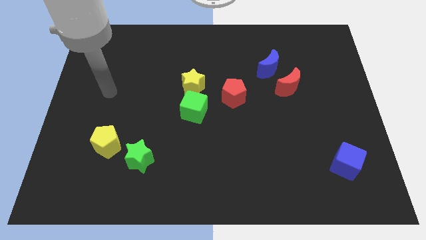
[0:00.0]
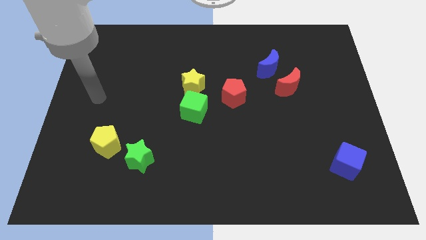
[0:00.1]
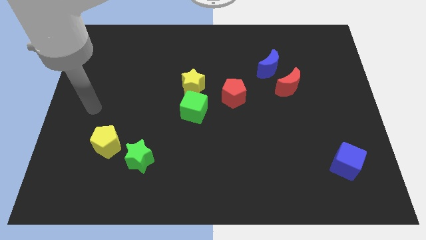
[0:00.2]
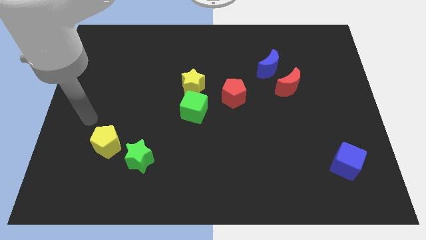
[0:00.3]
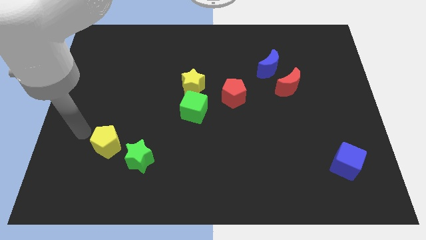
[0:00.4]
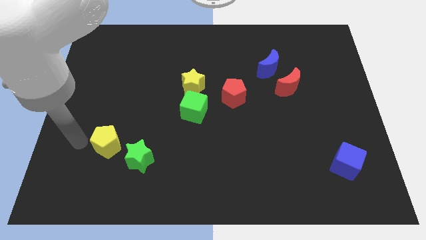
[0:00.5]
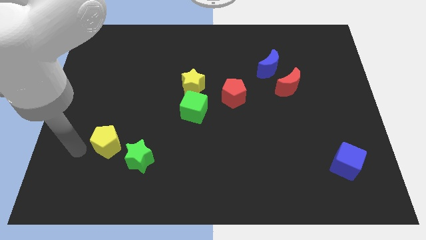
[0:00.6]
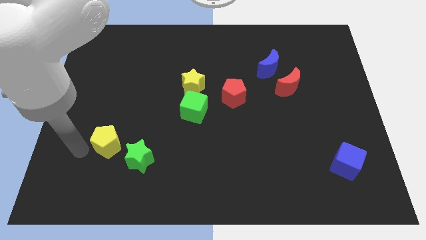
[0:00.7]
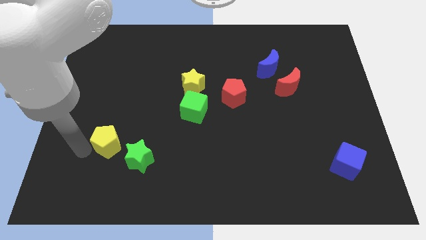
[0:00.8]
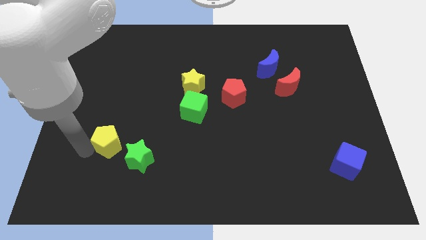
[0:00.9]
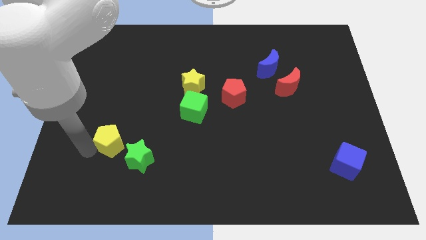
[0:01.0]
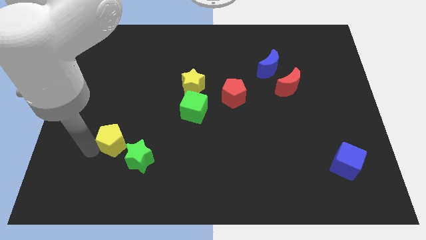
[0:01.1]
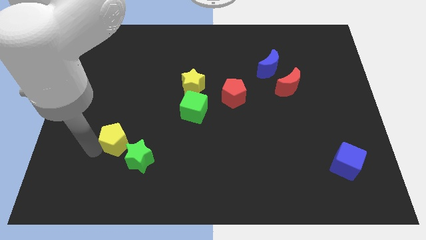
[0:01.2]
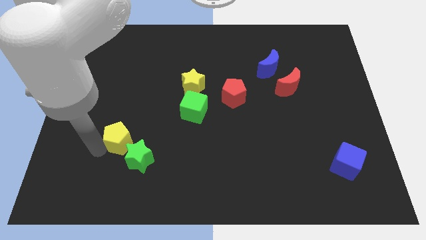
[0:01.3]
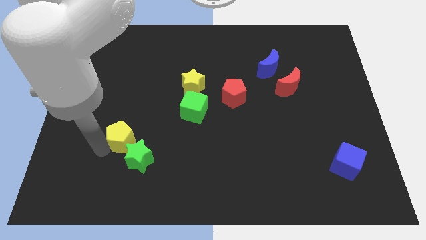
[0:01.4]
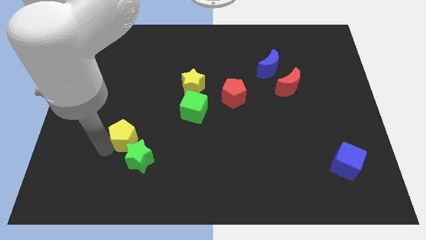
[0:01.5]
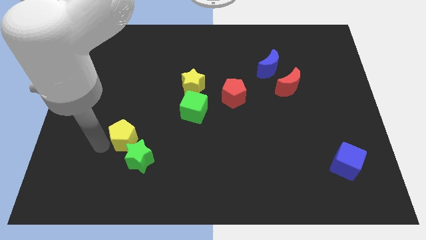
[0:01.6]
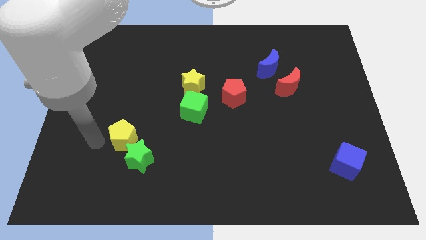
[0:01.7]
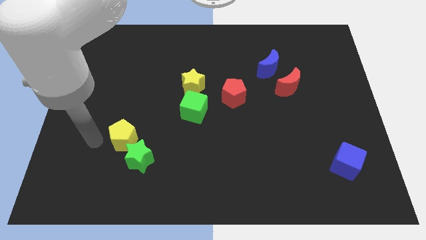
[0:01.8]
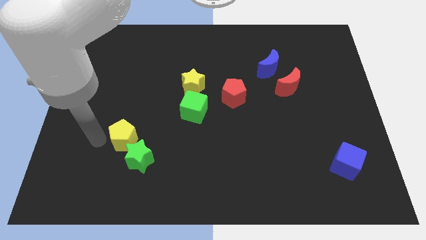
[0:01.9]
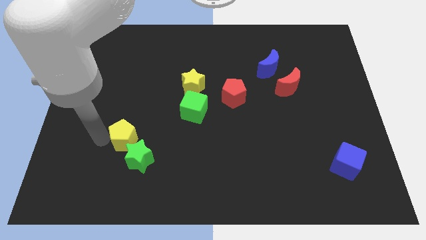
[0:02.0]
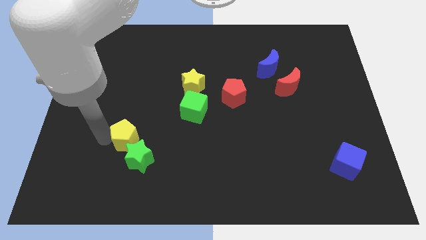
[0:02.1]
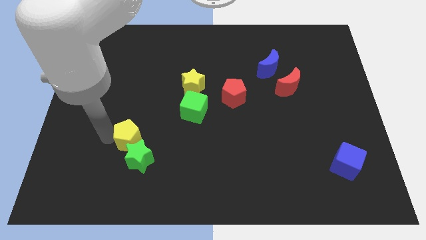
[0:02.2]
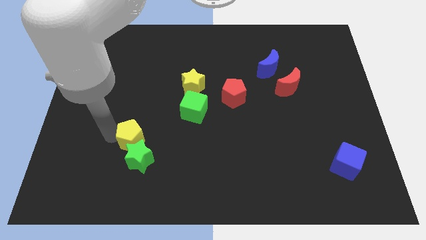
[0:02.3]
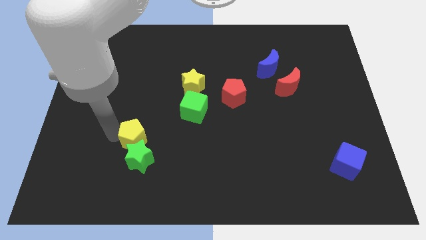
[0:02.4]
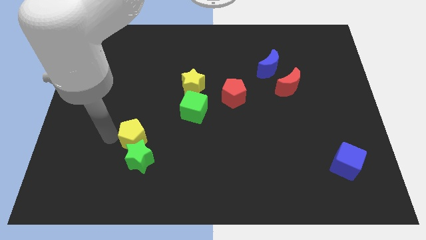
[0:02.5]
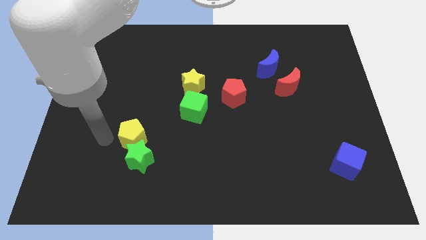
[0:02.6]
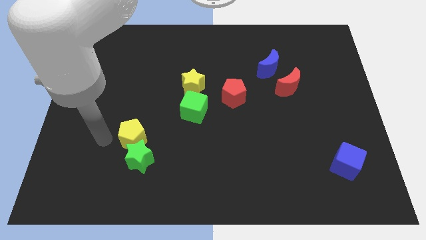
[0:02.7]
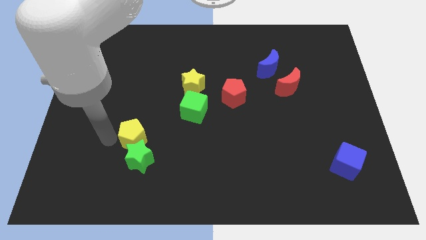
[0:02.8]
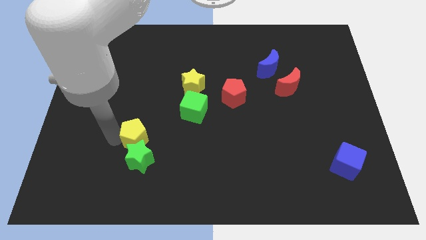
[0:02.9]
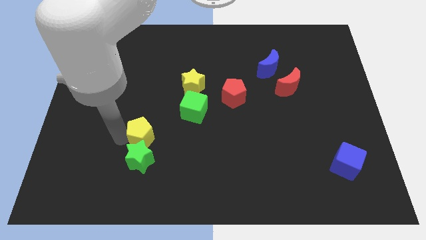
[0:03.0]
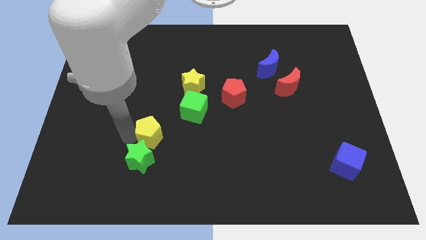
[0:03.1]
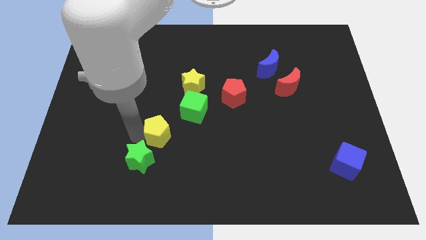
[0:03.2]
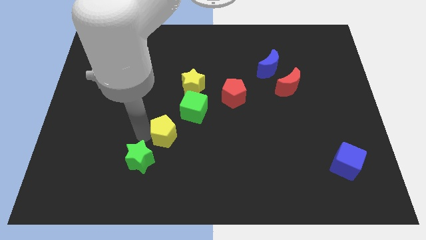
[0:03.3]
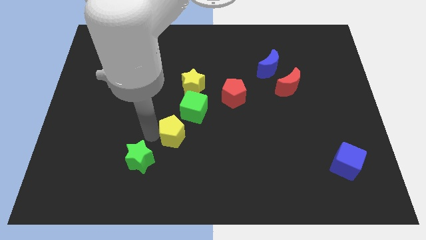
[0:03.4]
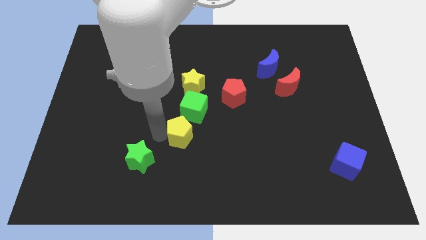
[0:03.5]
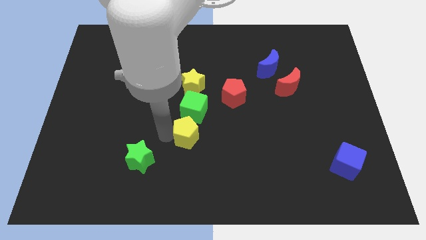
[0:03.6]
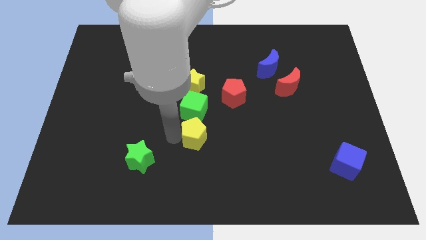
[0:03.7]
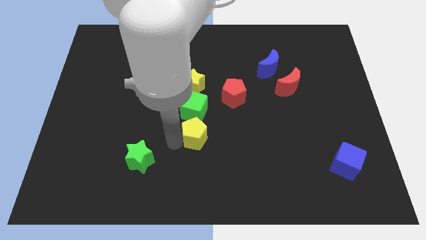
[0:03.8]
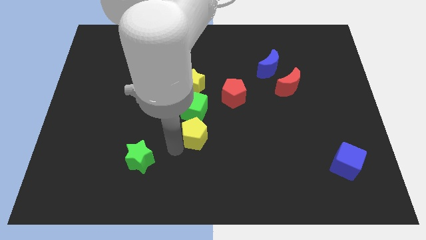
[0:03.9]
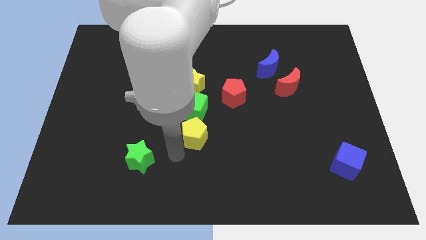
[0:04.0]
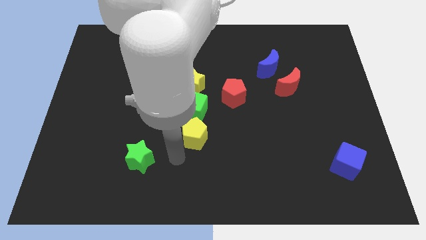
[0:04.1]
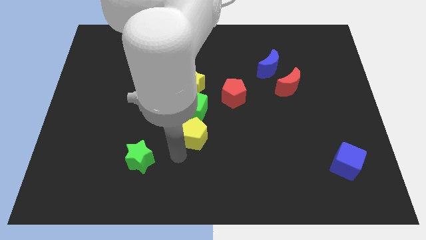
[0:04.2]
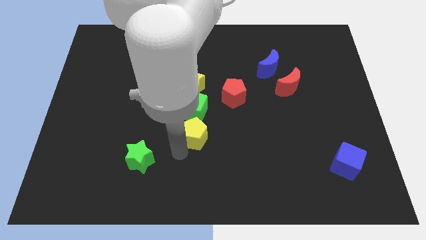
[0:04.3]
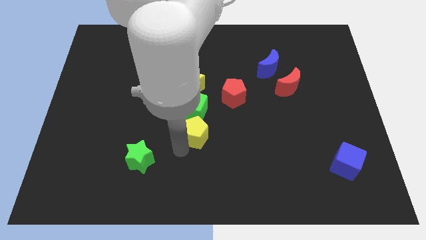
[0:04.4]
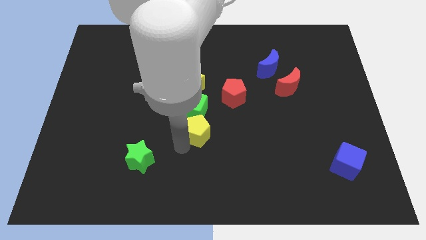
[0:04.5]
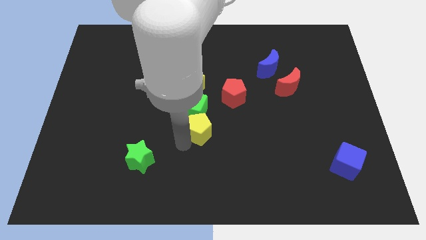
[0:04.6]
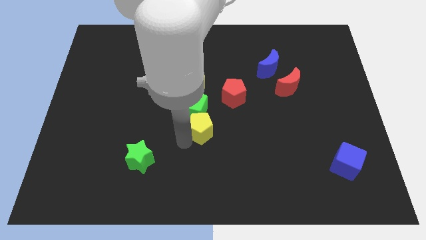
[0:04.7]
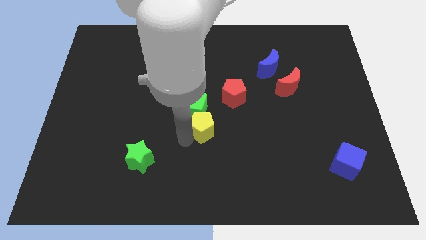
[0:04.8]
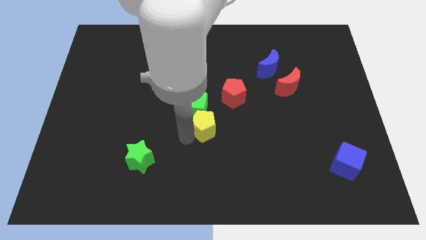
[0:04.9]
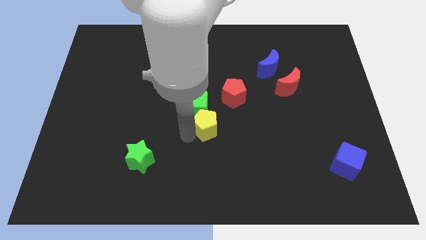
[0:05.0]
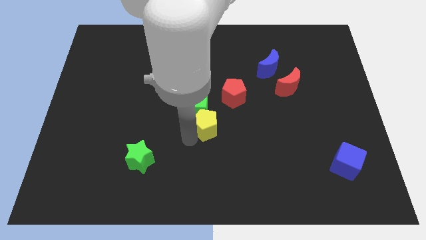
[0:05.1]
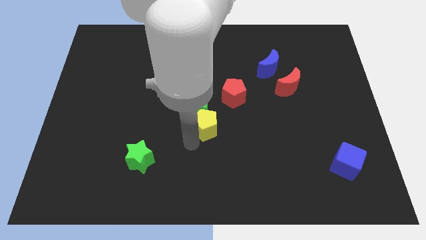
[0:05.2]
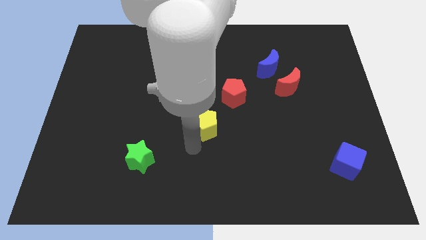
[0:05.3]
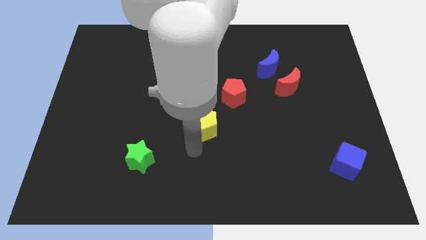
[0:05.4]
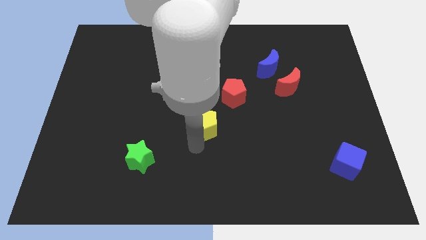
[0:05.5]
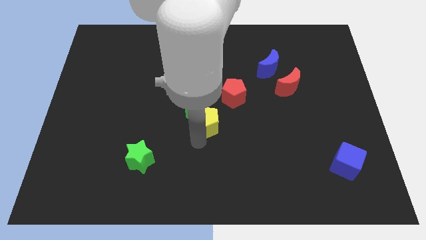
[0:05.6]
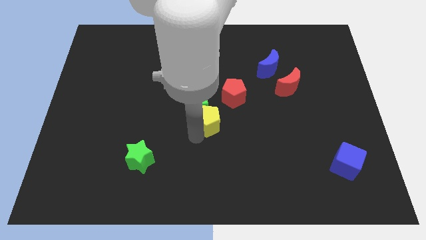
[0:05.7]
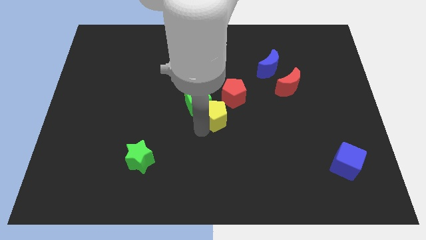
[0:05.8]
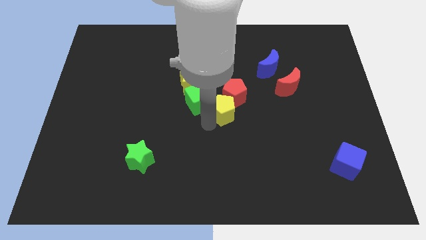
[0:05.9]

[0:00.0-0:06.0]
push the yellow pentagon close to the red pentagon

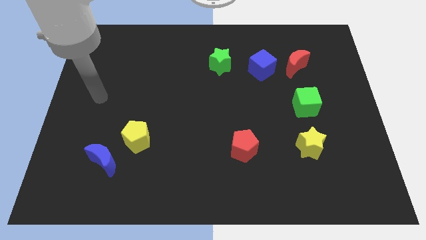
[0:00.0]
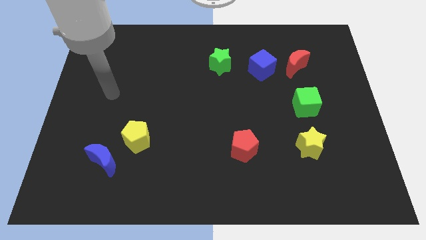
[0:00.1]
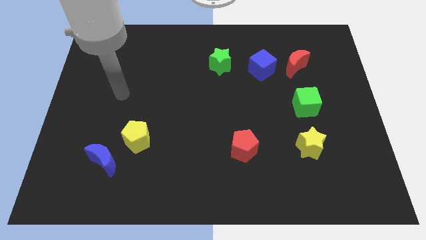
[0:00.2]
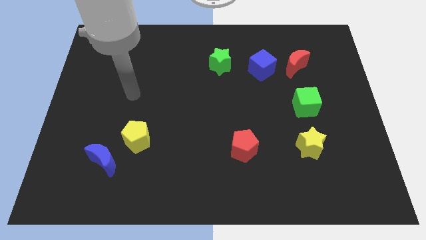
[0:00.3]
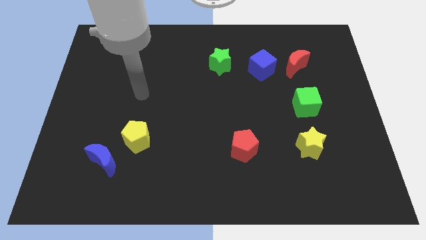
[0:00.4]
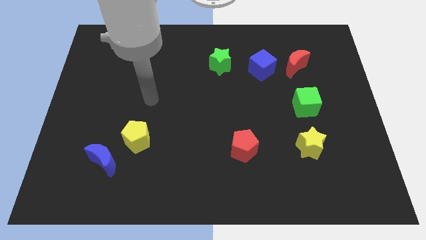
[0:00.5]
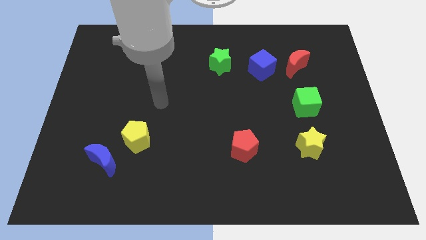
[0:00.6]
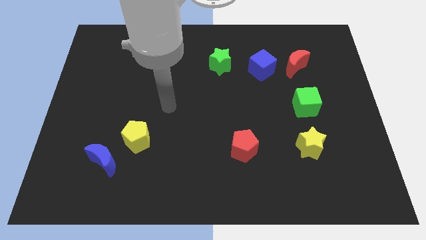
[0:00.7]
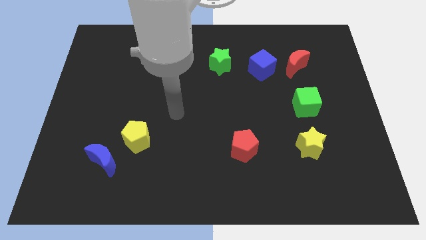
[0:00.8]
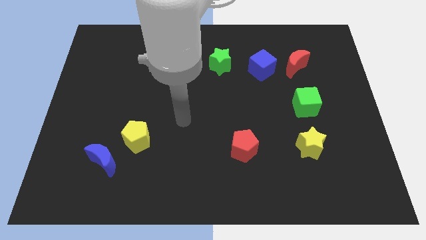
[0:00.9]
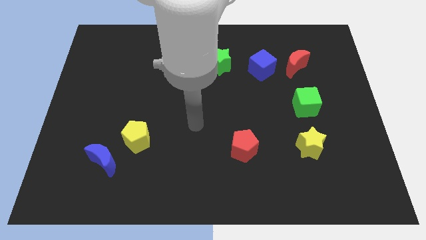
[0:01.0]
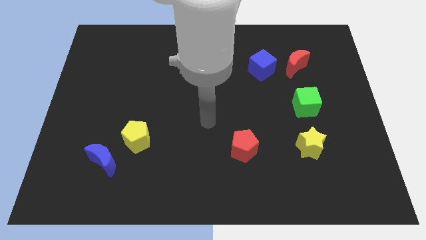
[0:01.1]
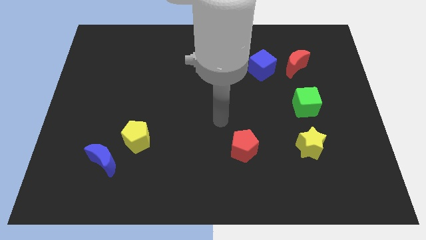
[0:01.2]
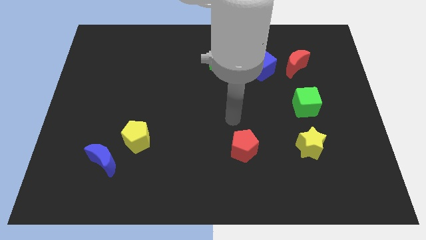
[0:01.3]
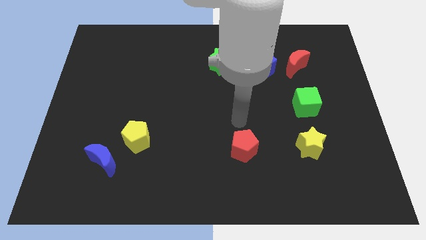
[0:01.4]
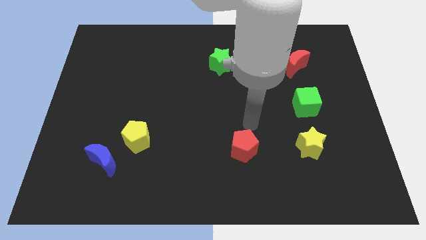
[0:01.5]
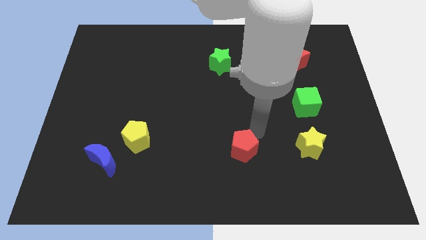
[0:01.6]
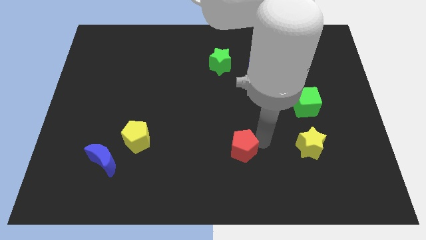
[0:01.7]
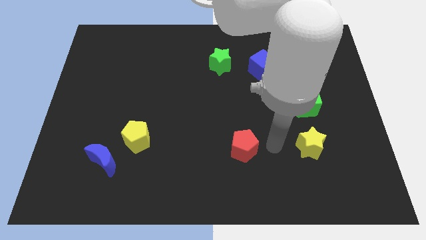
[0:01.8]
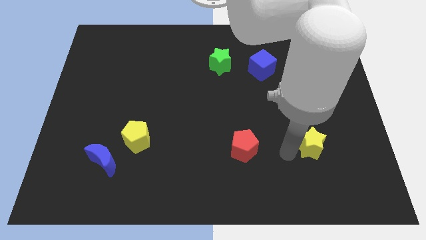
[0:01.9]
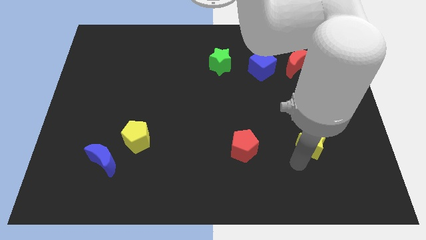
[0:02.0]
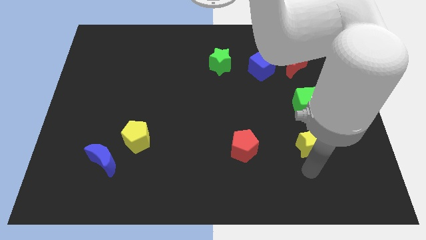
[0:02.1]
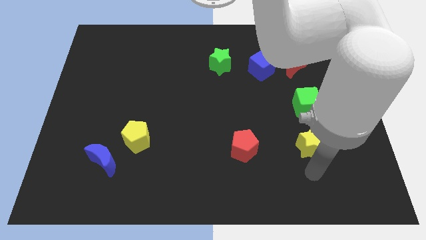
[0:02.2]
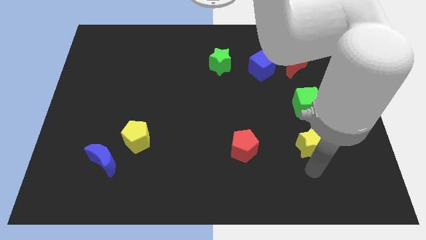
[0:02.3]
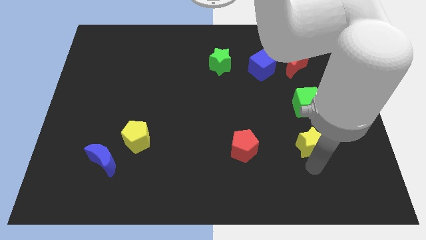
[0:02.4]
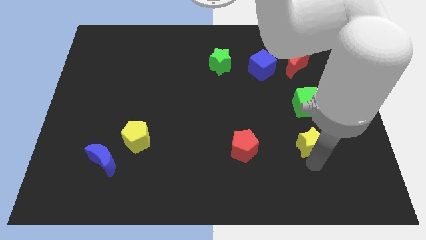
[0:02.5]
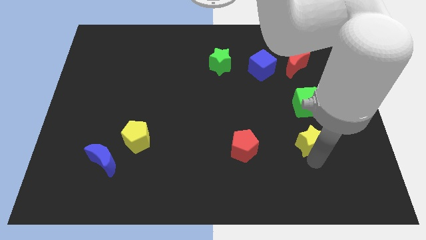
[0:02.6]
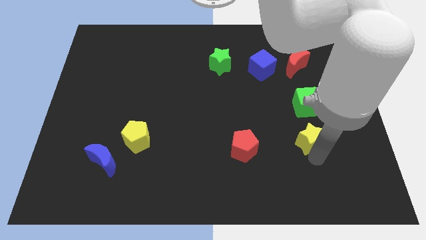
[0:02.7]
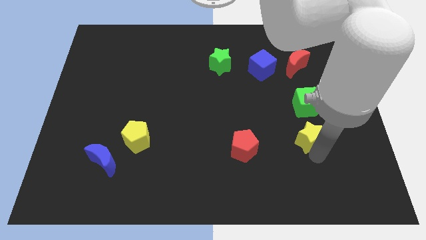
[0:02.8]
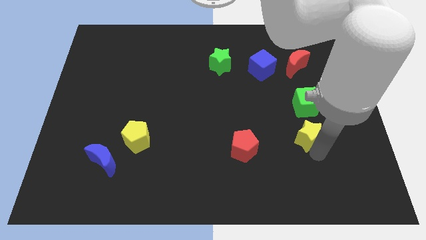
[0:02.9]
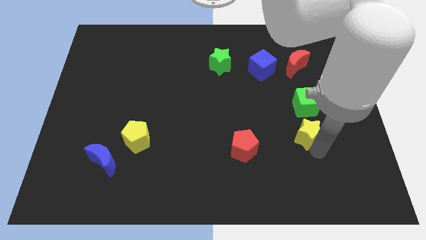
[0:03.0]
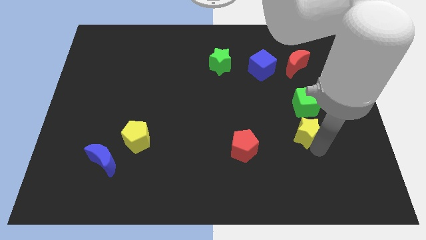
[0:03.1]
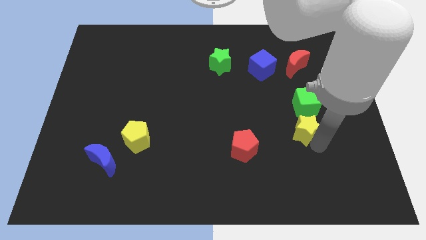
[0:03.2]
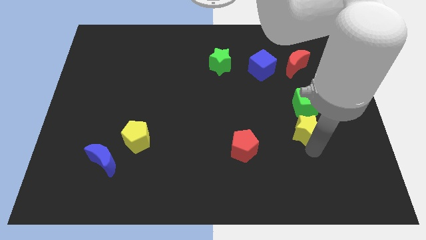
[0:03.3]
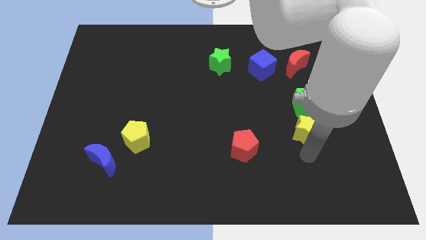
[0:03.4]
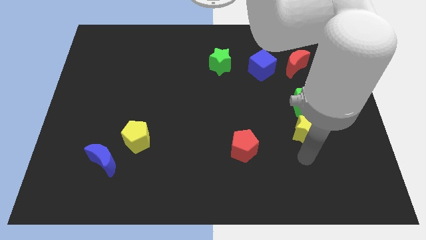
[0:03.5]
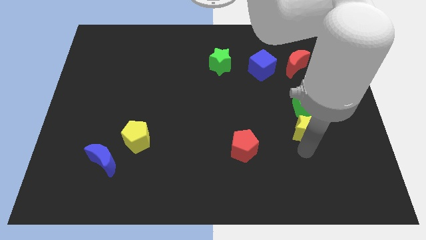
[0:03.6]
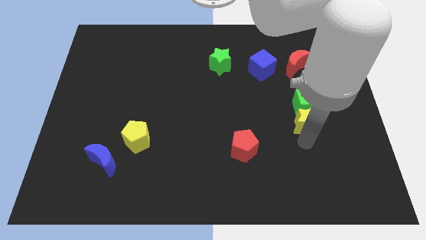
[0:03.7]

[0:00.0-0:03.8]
put the yellow star close to the green cube
